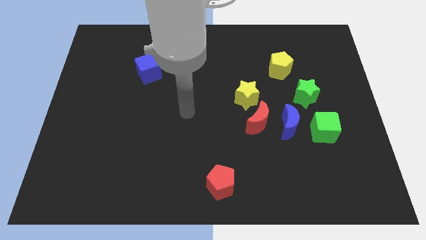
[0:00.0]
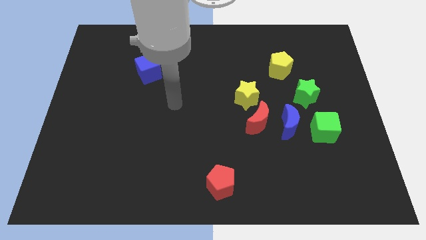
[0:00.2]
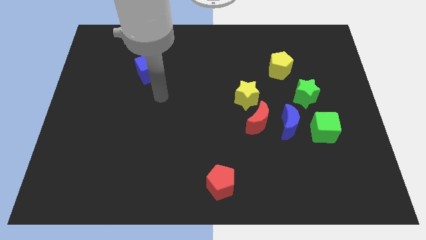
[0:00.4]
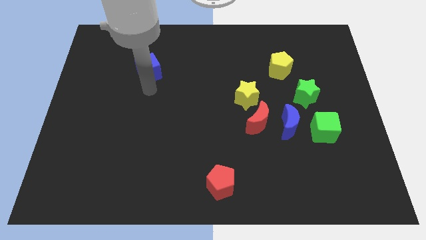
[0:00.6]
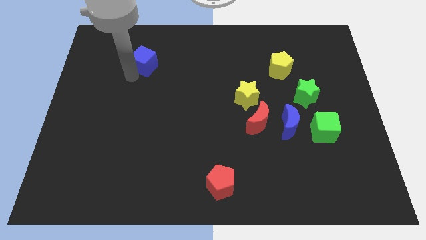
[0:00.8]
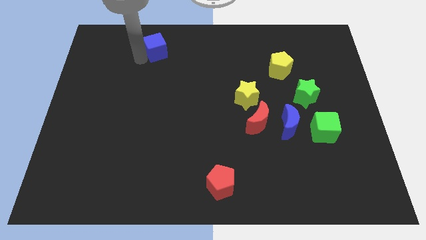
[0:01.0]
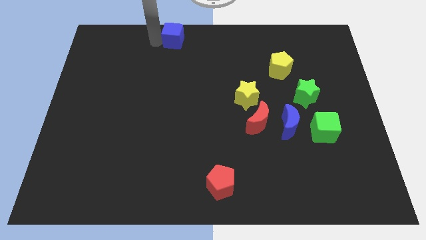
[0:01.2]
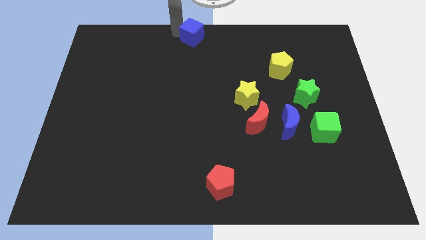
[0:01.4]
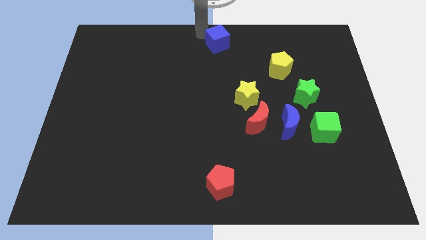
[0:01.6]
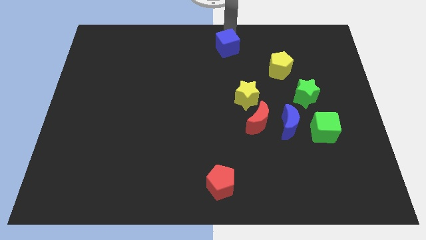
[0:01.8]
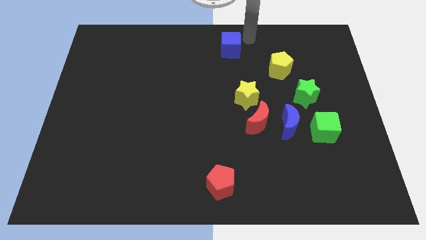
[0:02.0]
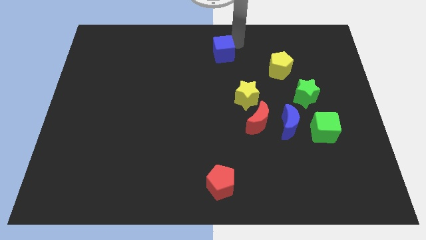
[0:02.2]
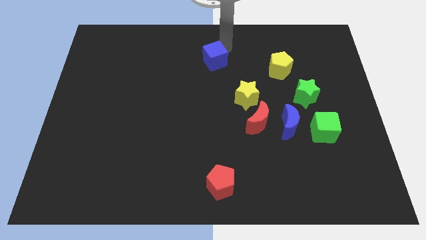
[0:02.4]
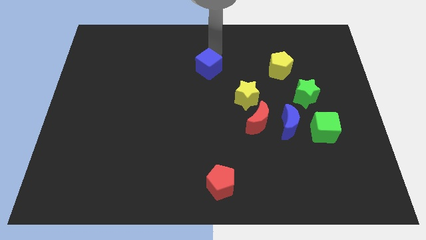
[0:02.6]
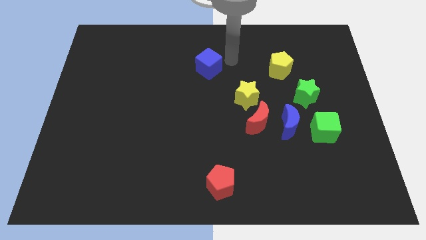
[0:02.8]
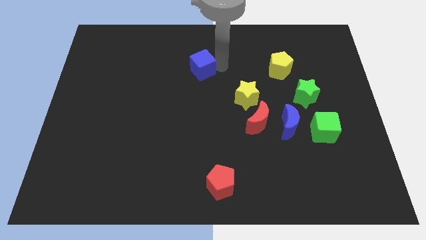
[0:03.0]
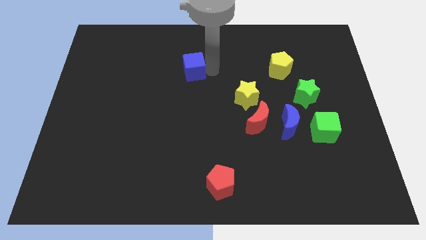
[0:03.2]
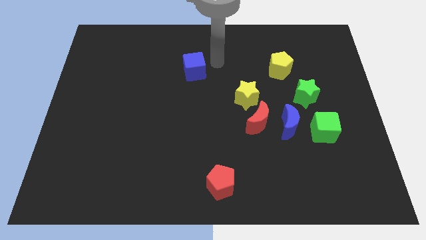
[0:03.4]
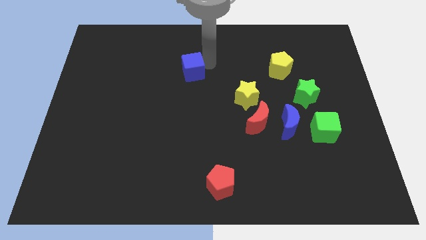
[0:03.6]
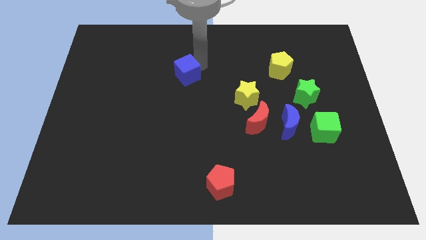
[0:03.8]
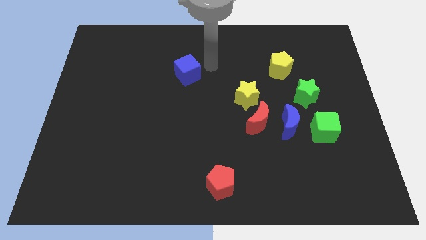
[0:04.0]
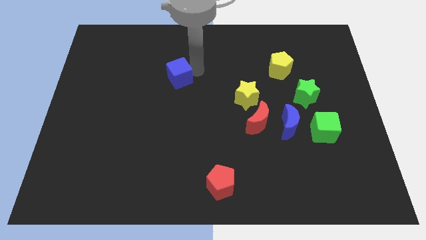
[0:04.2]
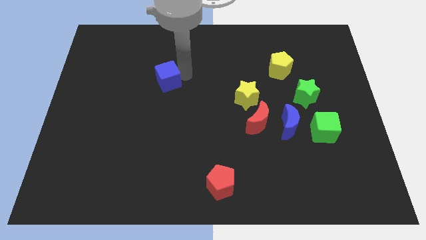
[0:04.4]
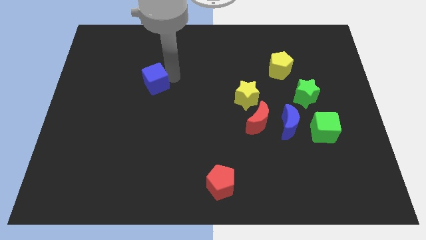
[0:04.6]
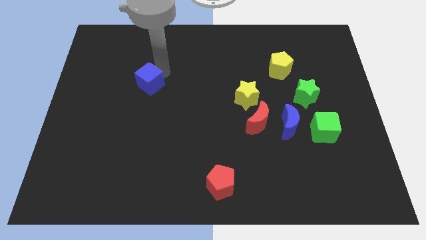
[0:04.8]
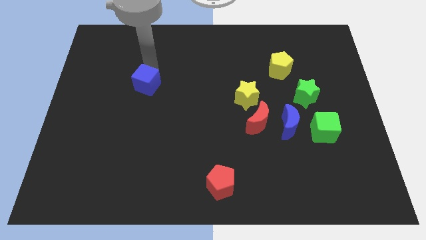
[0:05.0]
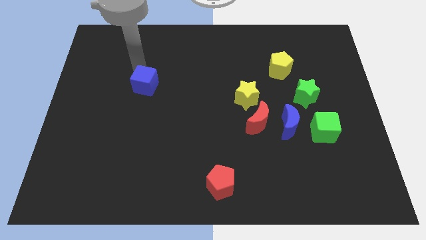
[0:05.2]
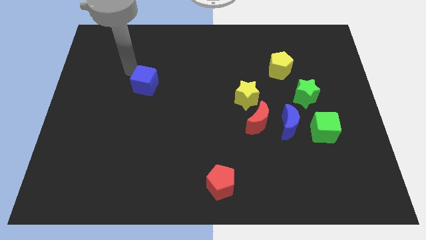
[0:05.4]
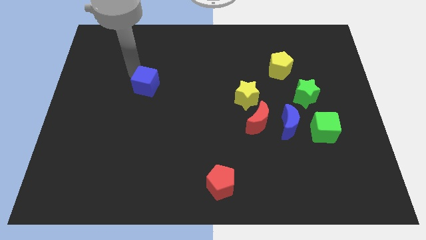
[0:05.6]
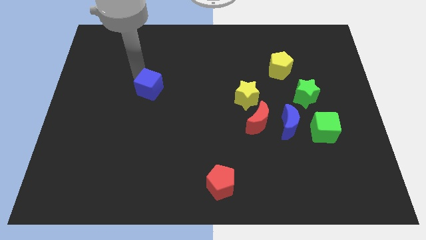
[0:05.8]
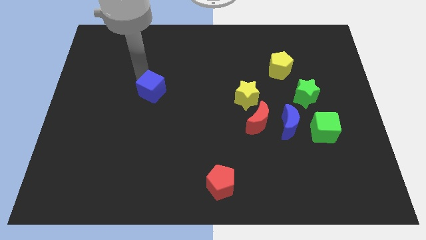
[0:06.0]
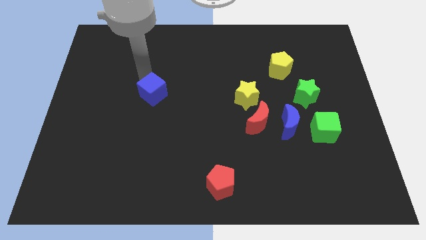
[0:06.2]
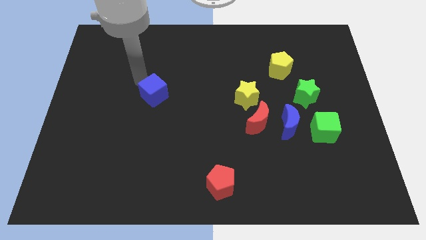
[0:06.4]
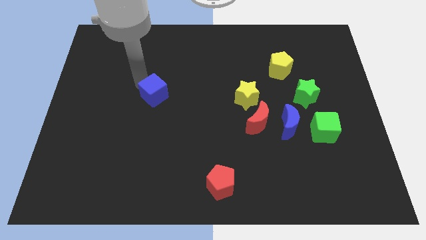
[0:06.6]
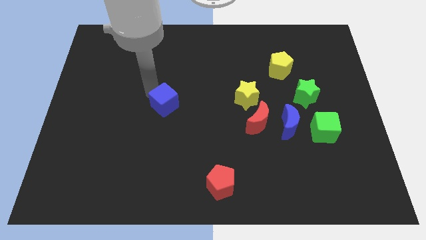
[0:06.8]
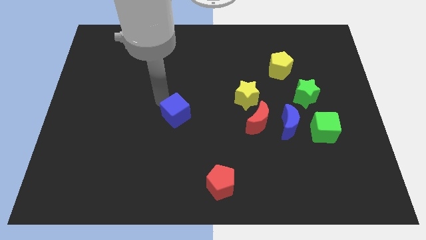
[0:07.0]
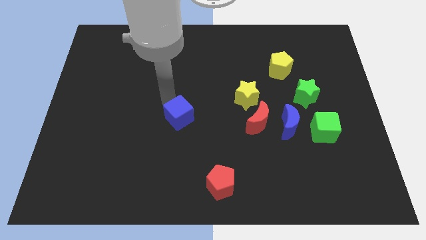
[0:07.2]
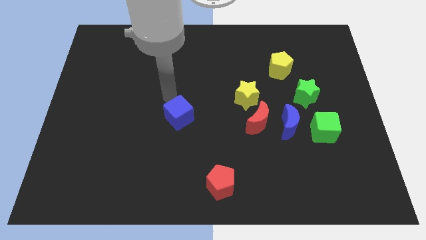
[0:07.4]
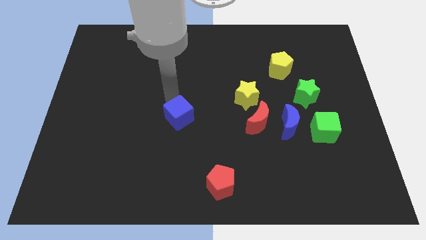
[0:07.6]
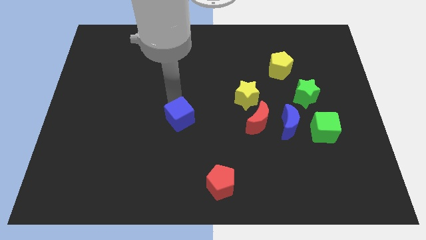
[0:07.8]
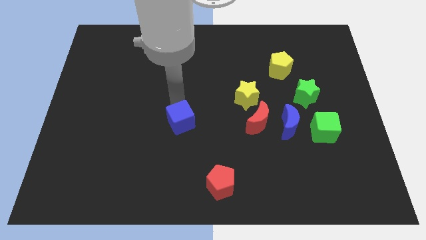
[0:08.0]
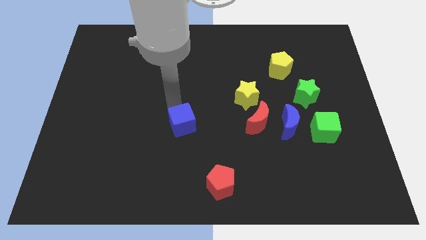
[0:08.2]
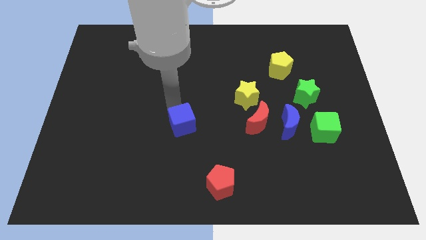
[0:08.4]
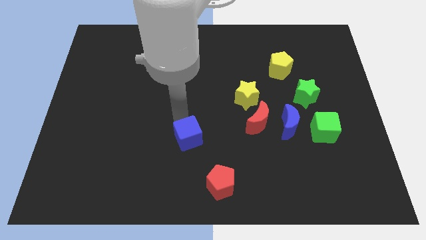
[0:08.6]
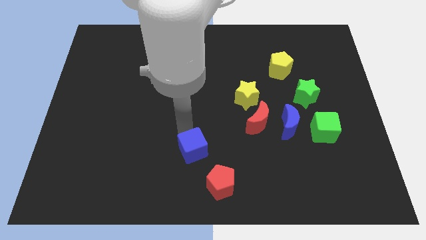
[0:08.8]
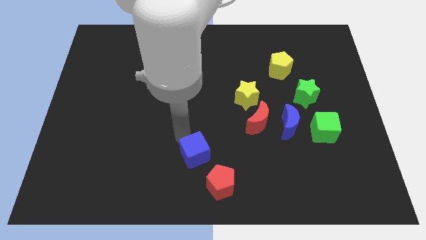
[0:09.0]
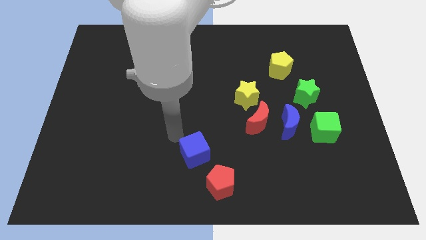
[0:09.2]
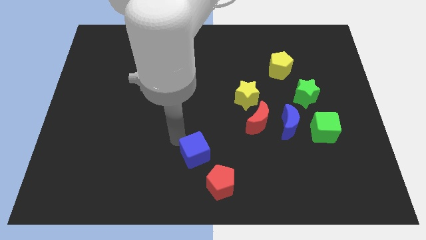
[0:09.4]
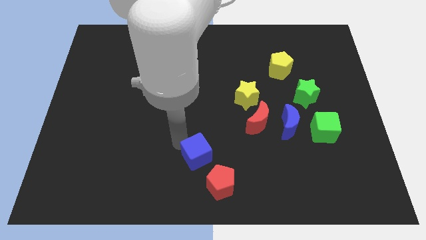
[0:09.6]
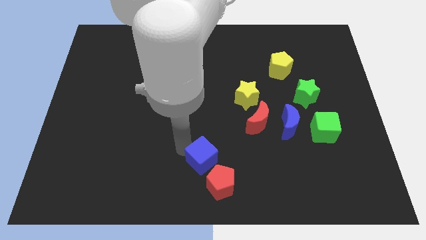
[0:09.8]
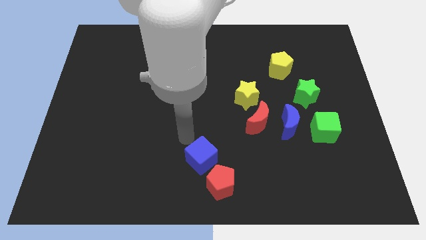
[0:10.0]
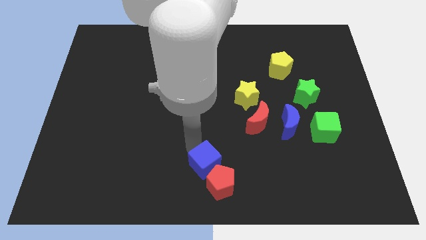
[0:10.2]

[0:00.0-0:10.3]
push the blue cube to the red pentagon

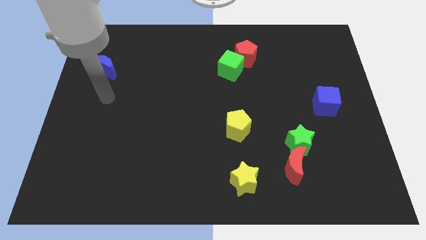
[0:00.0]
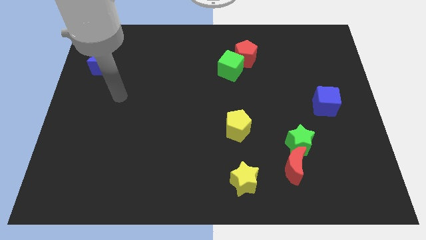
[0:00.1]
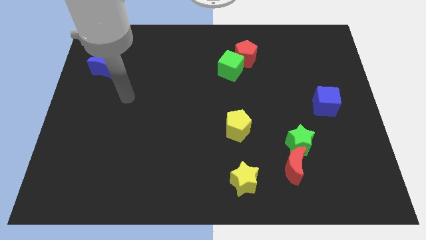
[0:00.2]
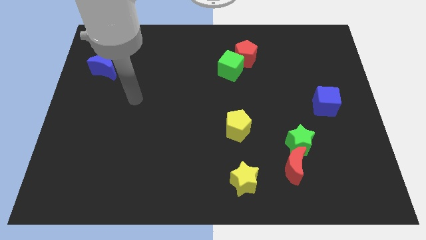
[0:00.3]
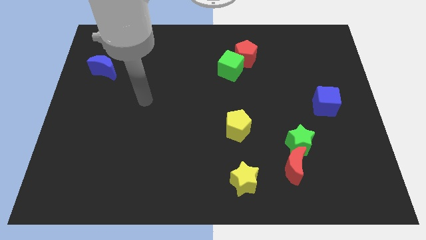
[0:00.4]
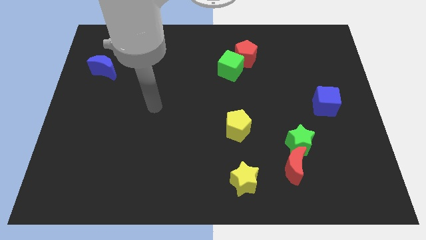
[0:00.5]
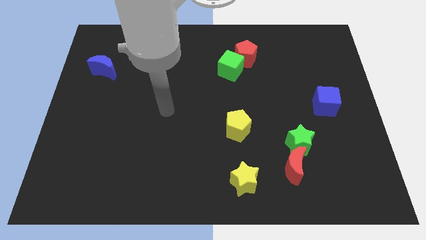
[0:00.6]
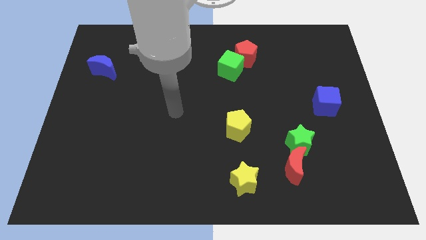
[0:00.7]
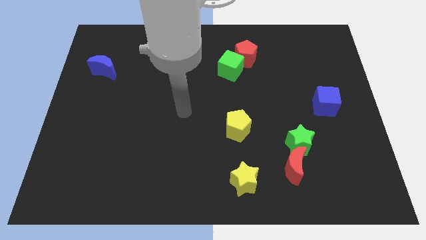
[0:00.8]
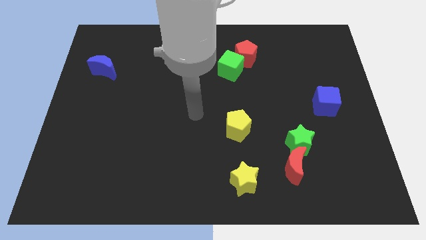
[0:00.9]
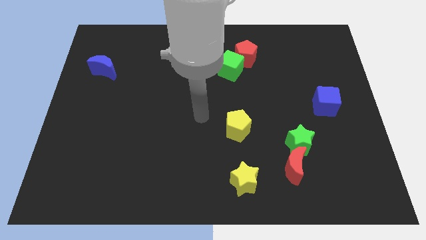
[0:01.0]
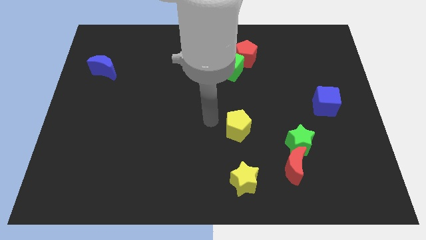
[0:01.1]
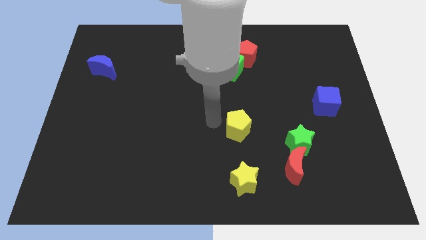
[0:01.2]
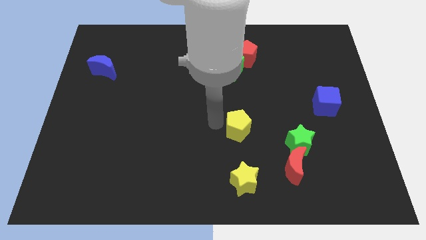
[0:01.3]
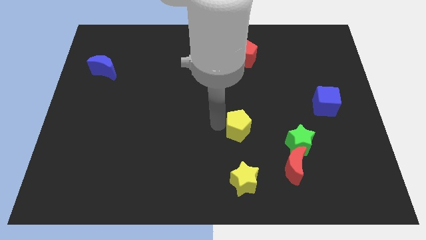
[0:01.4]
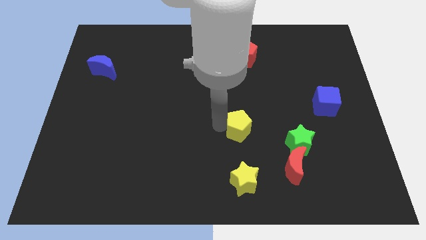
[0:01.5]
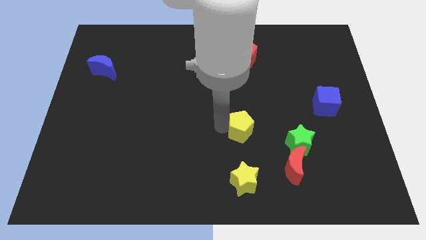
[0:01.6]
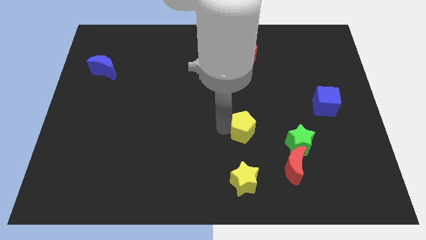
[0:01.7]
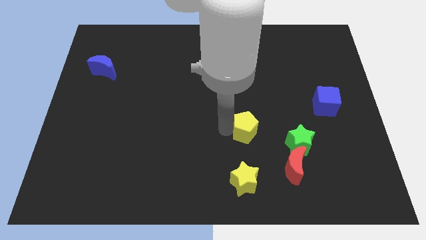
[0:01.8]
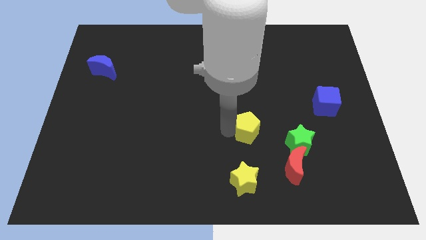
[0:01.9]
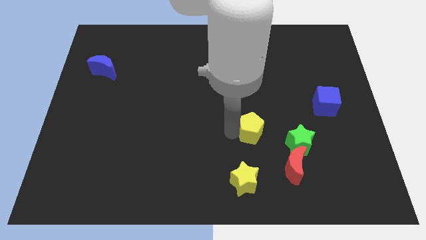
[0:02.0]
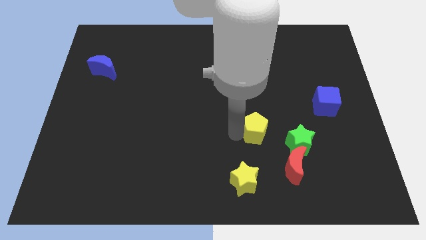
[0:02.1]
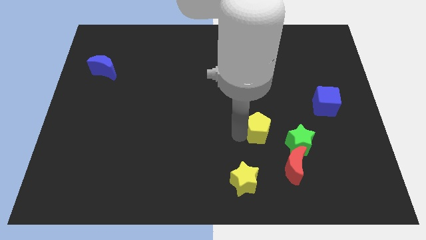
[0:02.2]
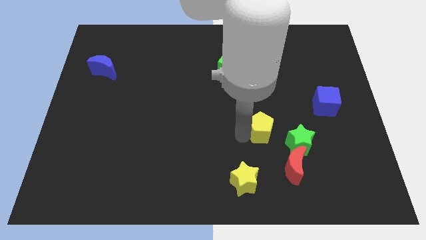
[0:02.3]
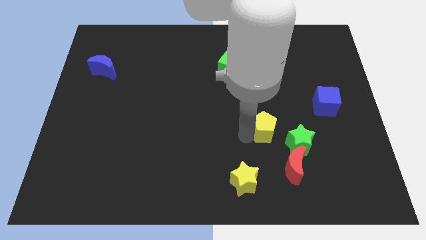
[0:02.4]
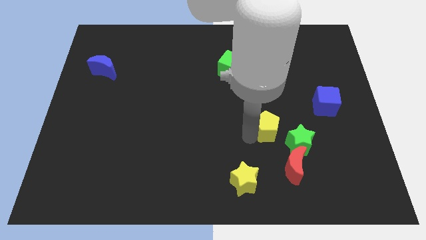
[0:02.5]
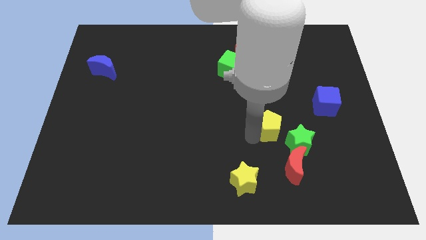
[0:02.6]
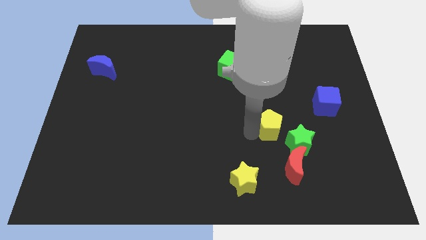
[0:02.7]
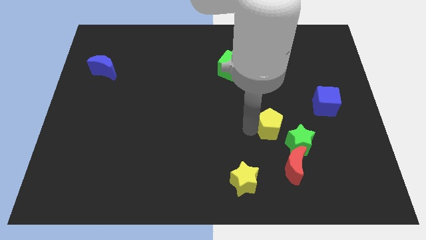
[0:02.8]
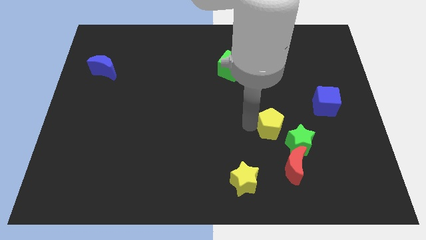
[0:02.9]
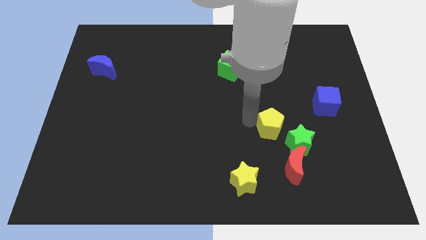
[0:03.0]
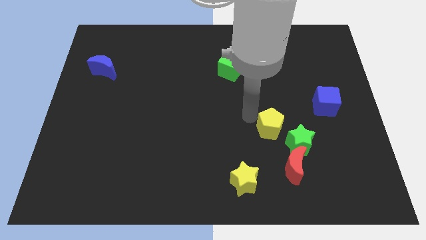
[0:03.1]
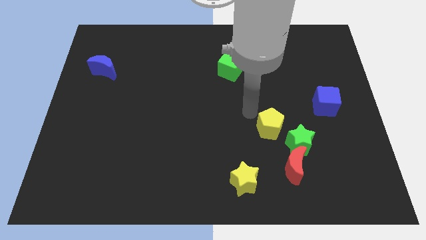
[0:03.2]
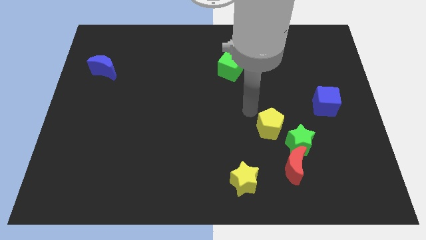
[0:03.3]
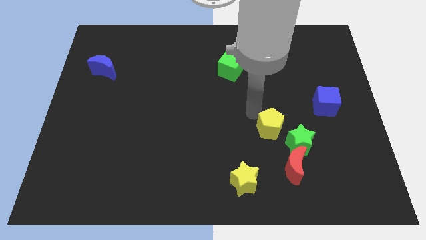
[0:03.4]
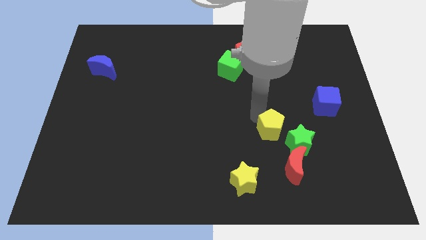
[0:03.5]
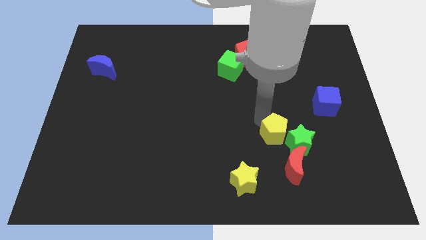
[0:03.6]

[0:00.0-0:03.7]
slide the yellow pentagon next to the green star
